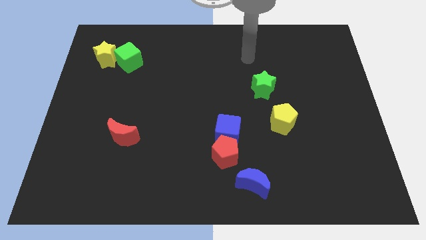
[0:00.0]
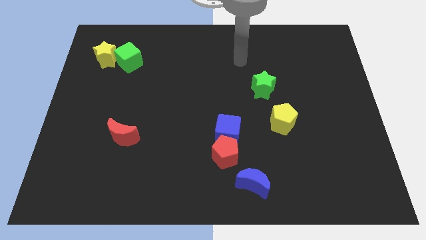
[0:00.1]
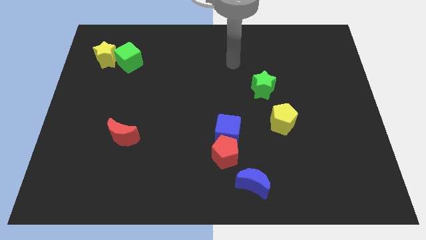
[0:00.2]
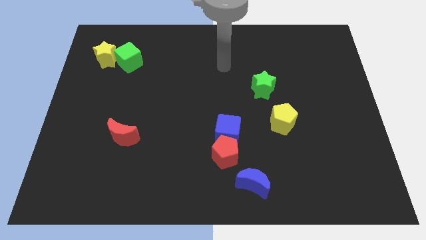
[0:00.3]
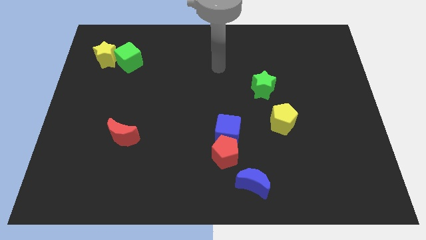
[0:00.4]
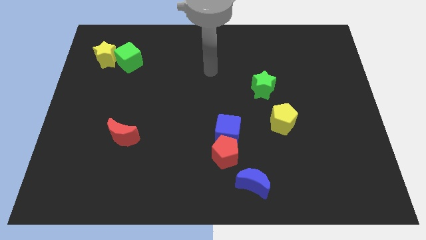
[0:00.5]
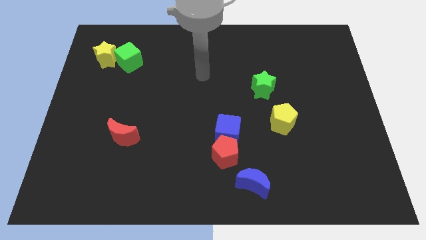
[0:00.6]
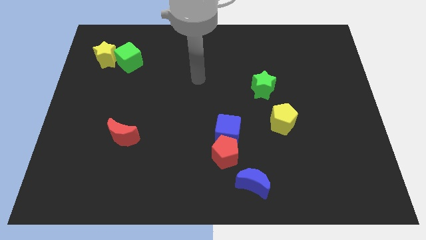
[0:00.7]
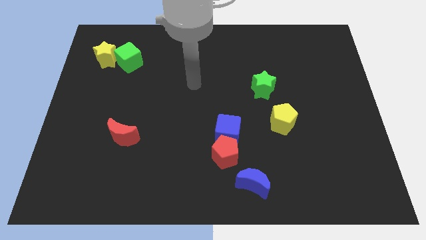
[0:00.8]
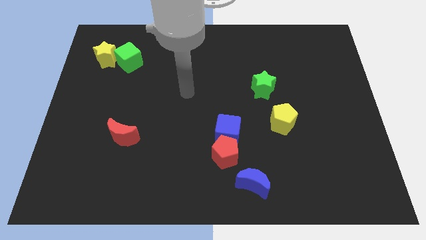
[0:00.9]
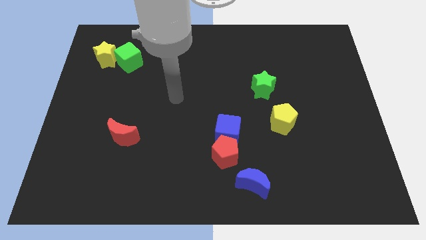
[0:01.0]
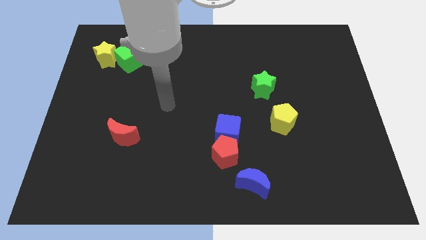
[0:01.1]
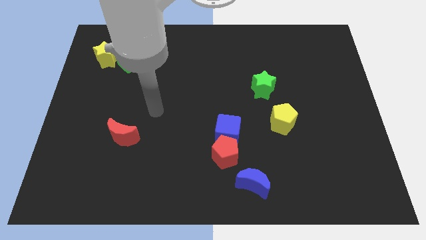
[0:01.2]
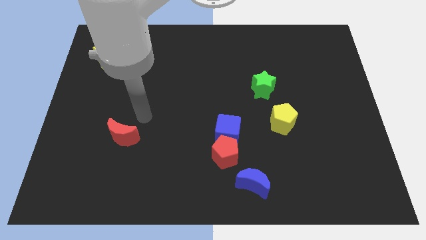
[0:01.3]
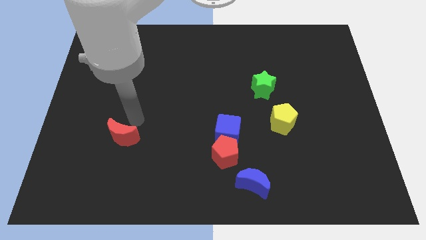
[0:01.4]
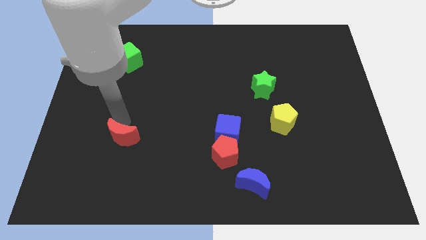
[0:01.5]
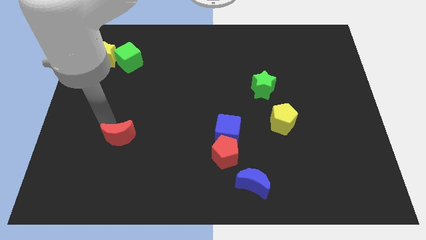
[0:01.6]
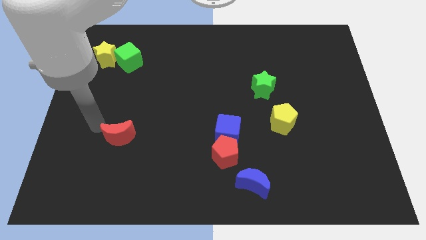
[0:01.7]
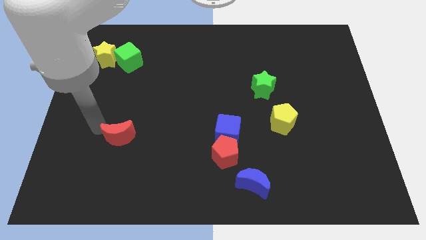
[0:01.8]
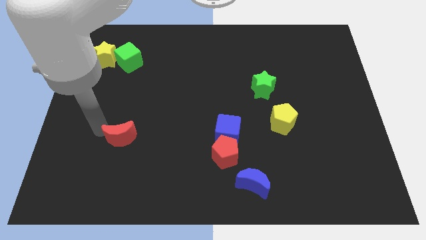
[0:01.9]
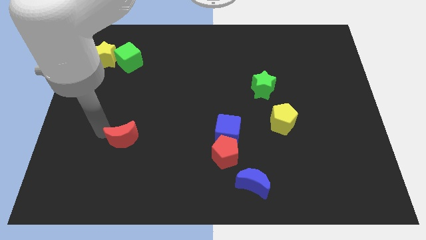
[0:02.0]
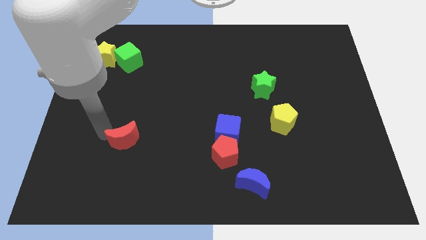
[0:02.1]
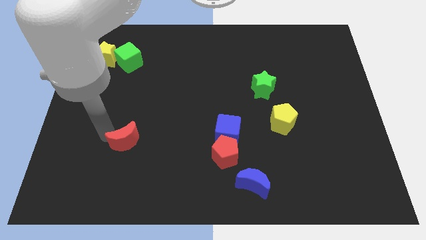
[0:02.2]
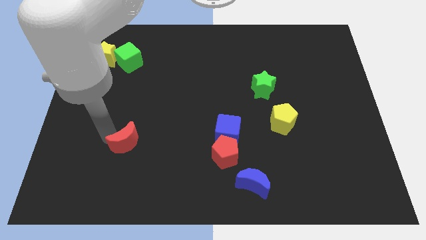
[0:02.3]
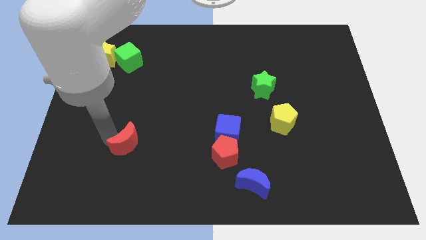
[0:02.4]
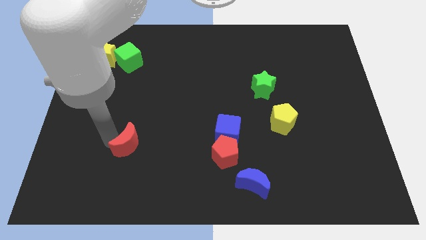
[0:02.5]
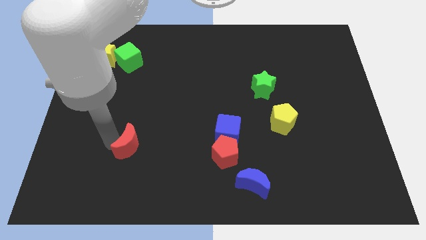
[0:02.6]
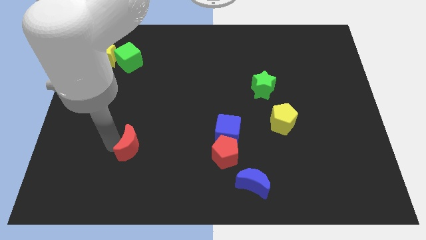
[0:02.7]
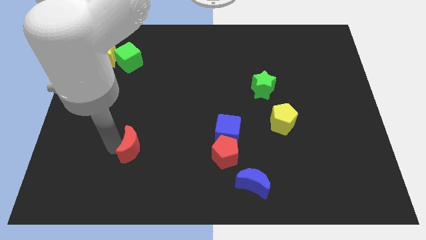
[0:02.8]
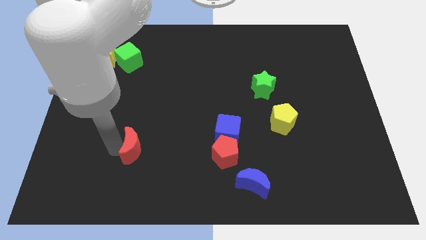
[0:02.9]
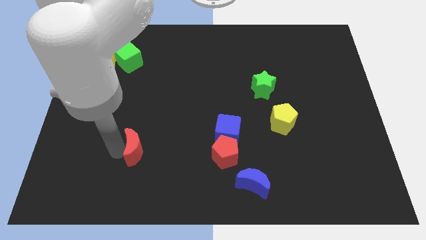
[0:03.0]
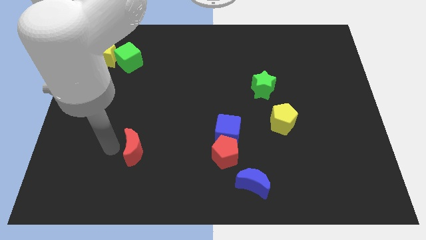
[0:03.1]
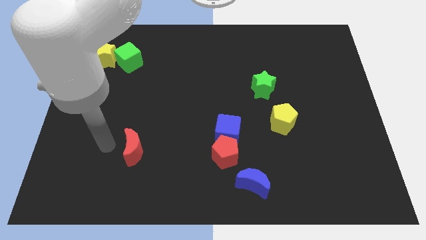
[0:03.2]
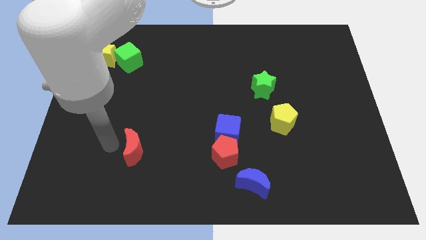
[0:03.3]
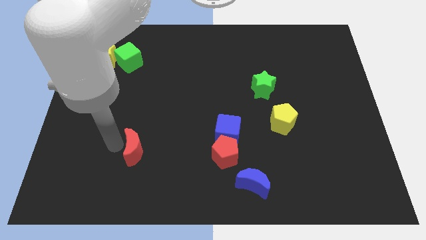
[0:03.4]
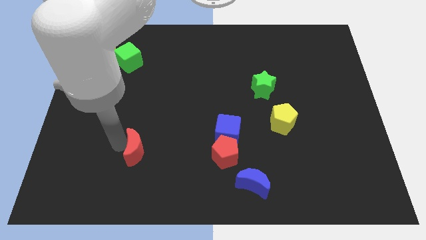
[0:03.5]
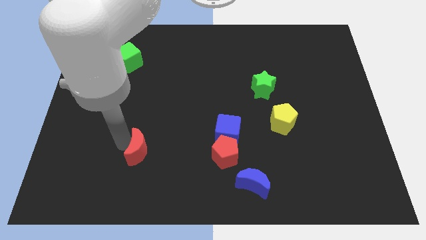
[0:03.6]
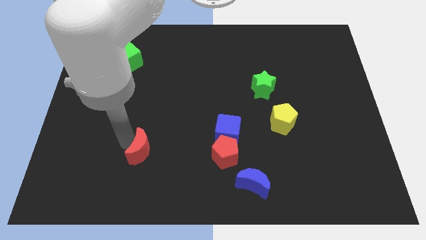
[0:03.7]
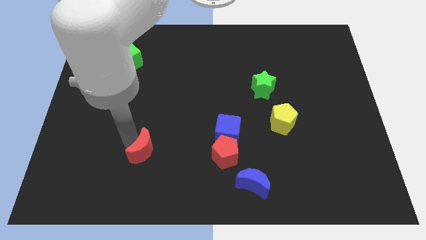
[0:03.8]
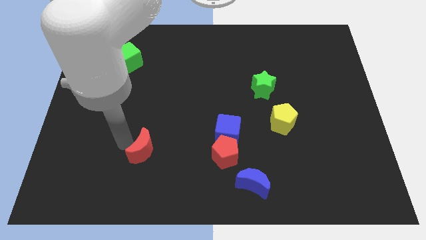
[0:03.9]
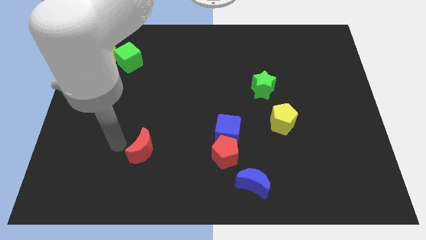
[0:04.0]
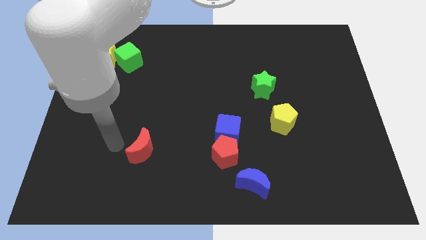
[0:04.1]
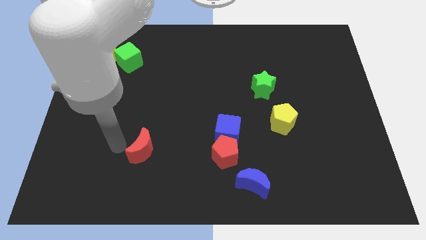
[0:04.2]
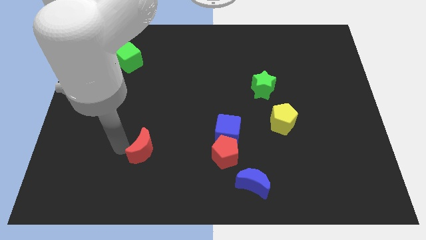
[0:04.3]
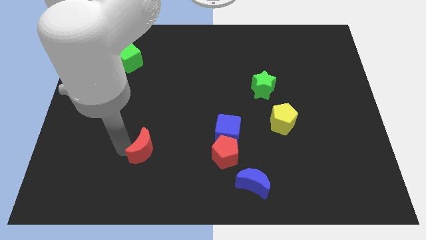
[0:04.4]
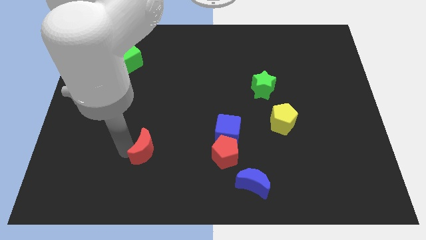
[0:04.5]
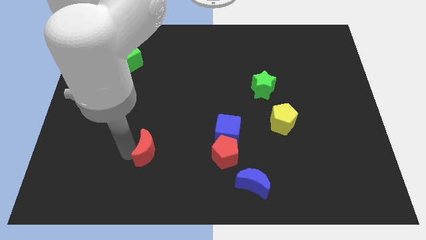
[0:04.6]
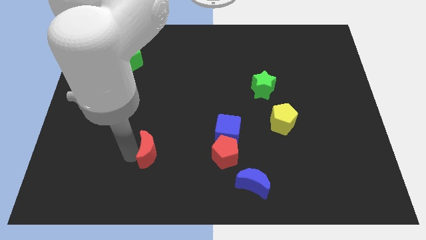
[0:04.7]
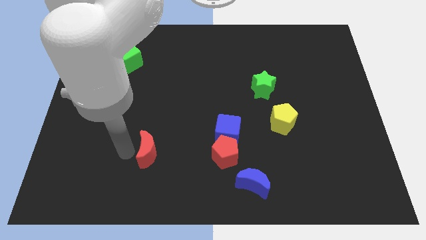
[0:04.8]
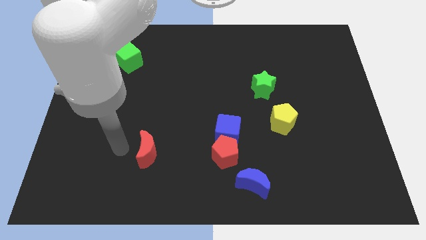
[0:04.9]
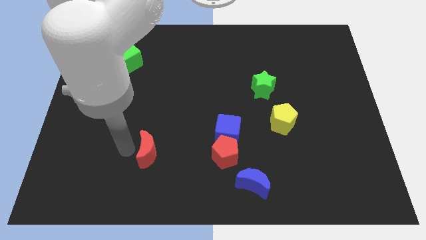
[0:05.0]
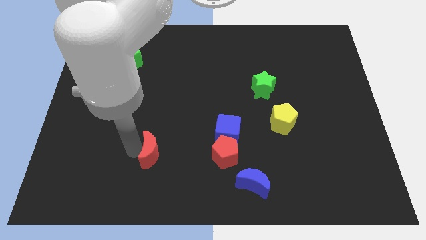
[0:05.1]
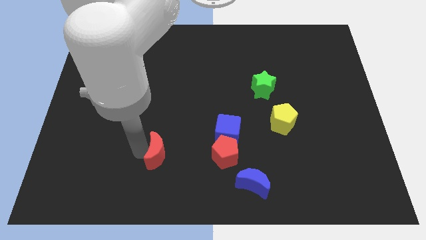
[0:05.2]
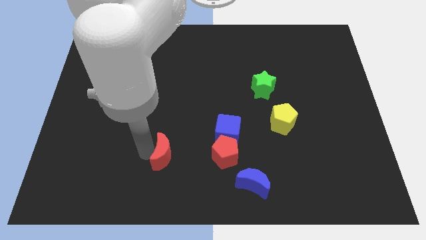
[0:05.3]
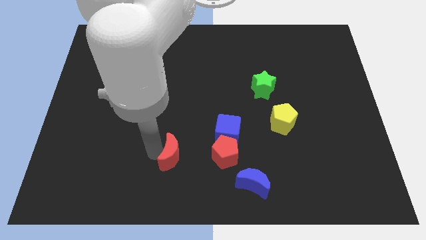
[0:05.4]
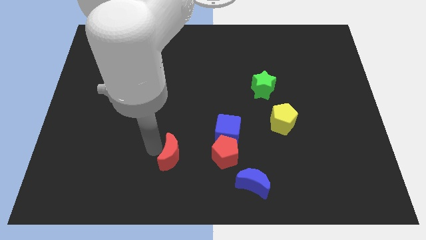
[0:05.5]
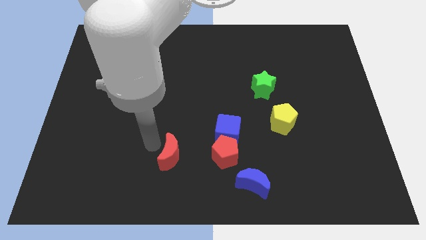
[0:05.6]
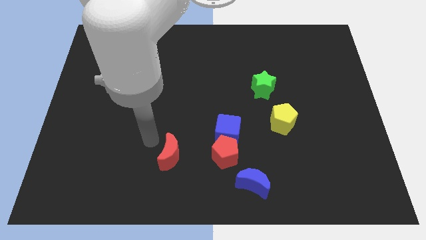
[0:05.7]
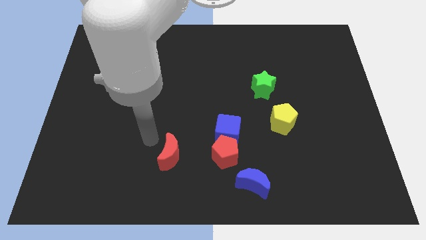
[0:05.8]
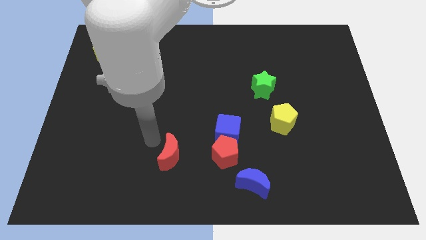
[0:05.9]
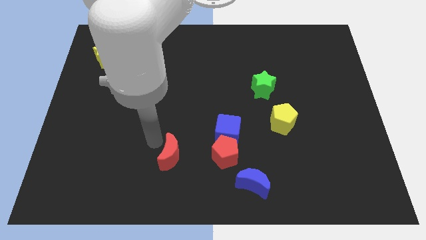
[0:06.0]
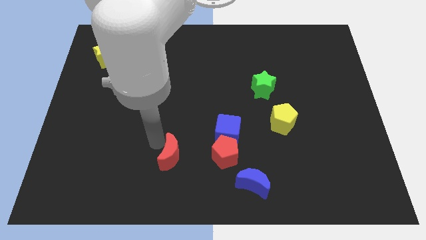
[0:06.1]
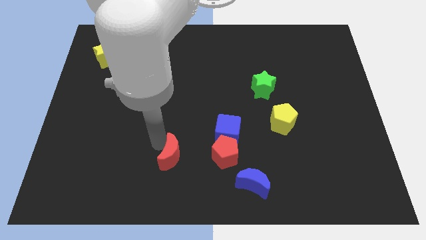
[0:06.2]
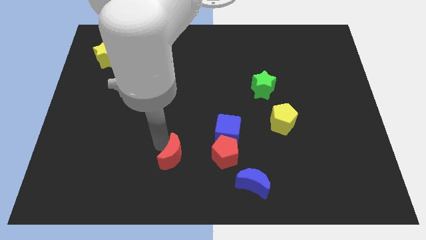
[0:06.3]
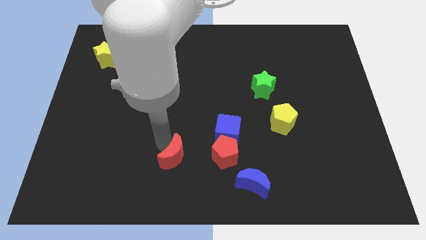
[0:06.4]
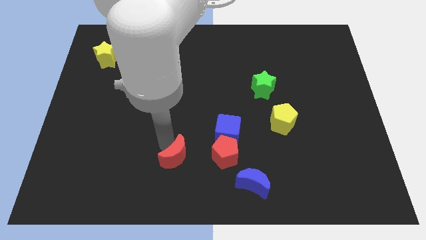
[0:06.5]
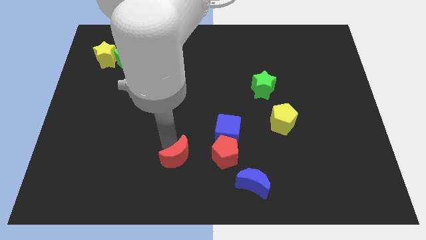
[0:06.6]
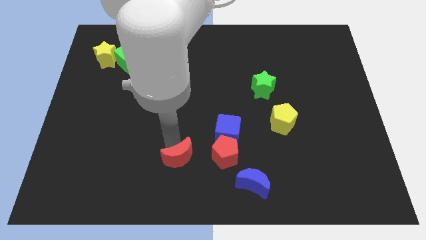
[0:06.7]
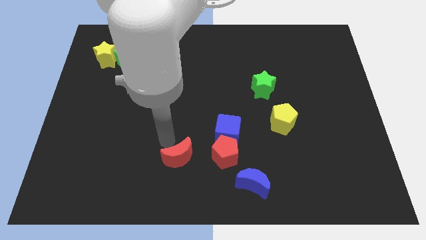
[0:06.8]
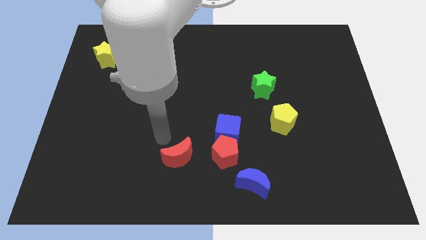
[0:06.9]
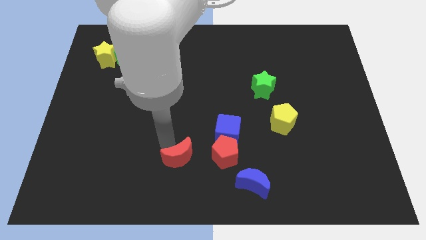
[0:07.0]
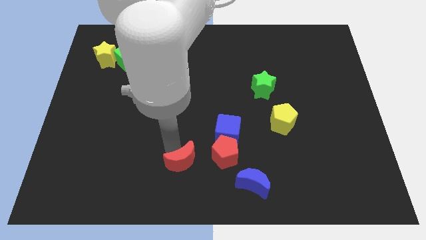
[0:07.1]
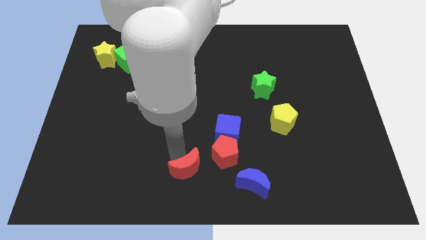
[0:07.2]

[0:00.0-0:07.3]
move the red moon just left of the blue moon
